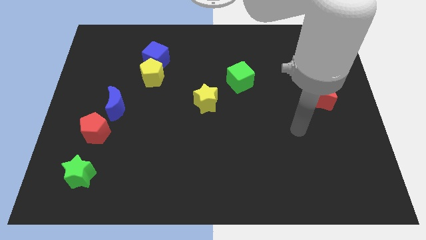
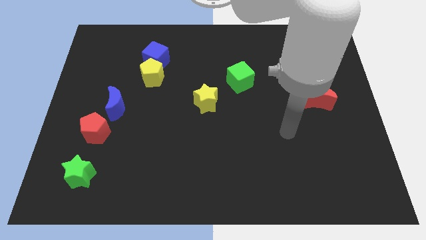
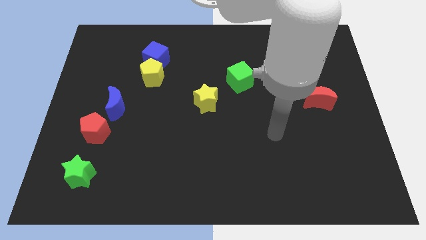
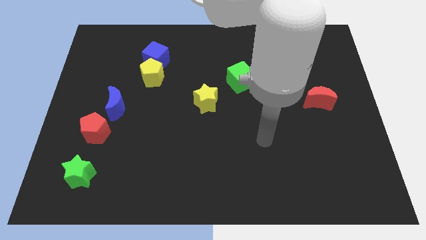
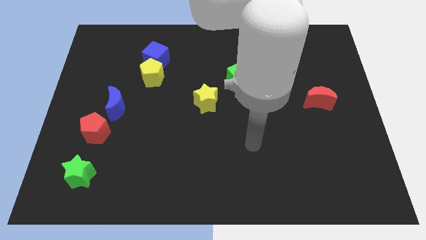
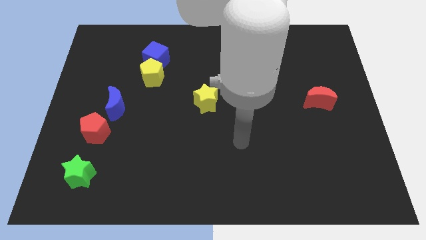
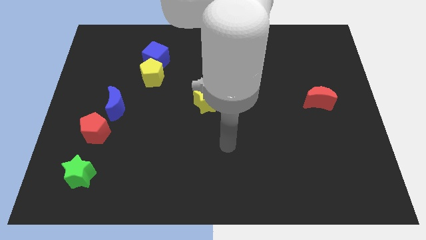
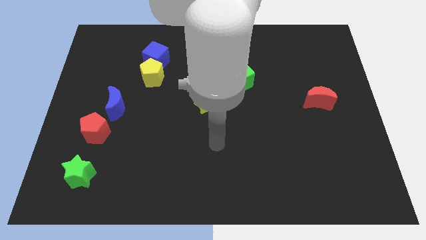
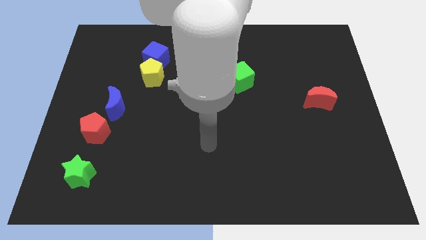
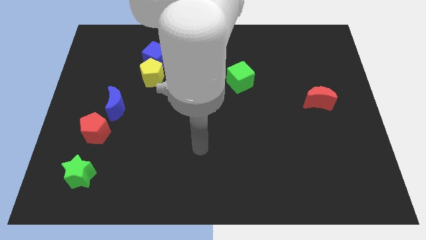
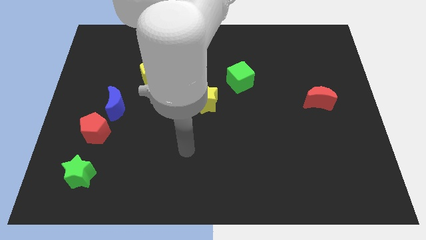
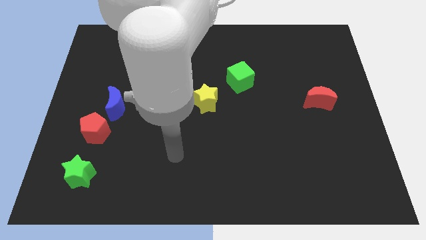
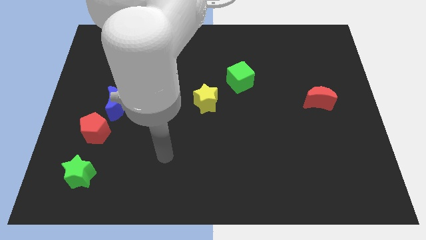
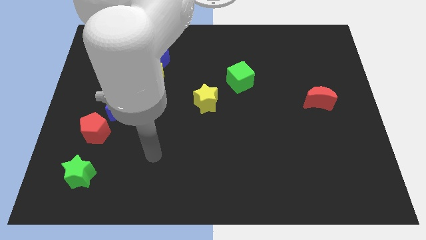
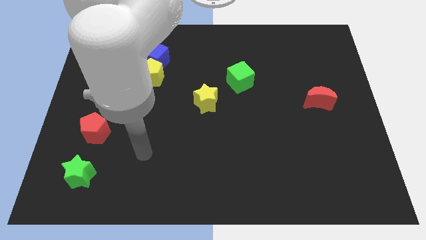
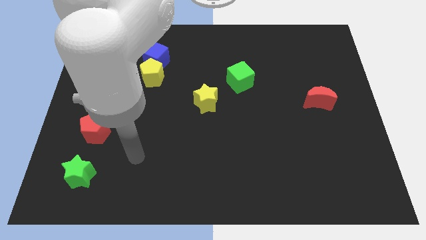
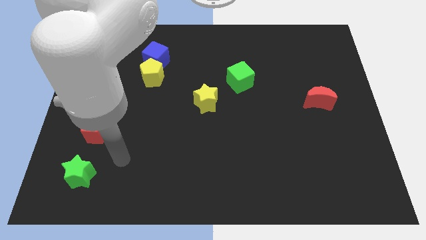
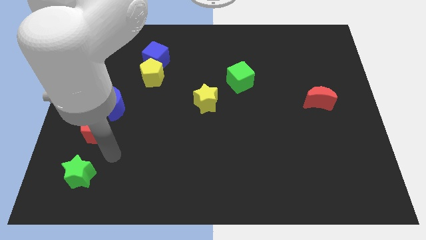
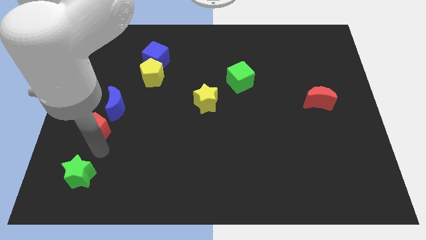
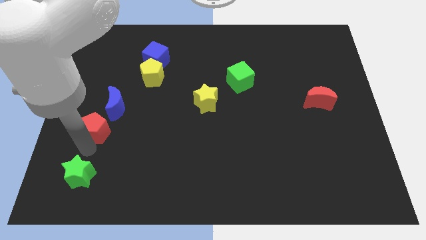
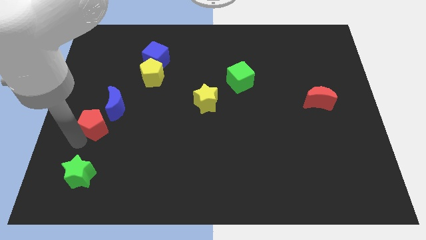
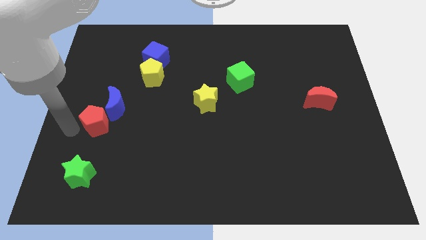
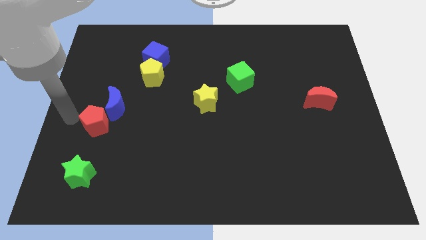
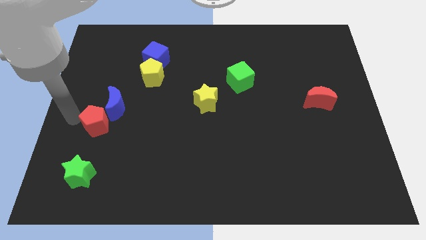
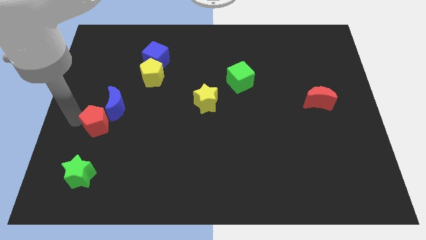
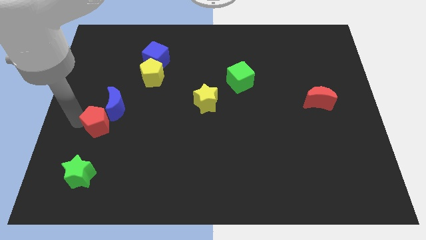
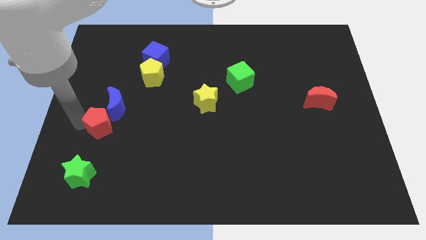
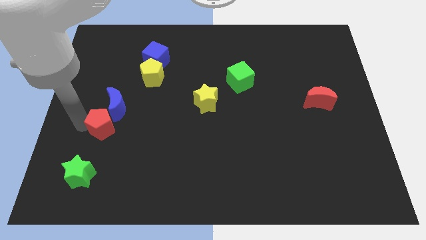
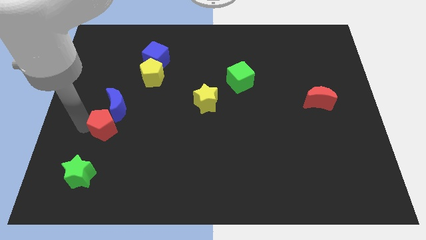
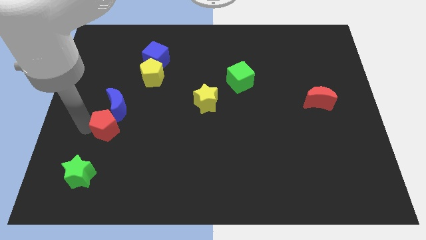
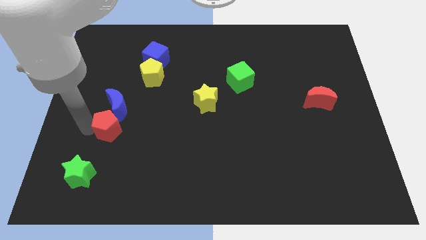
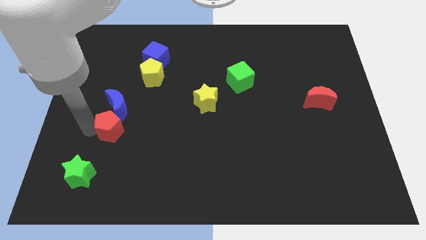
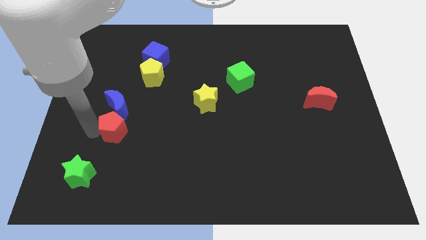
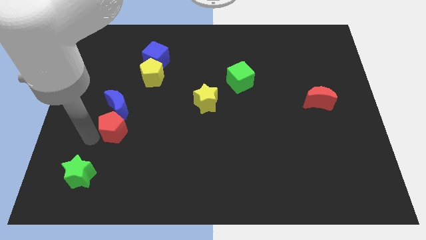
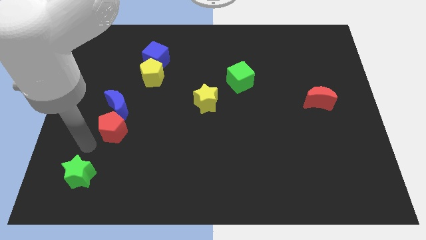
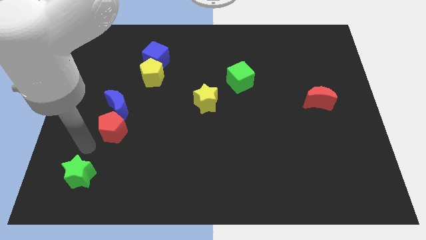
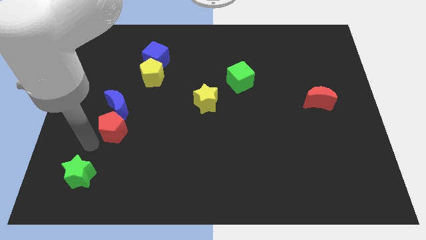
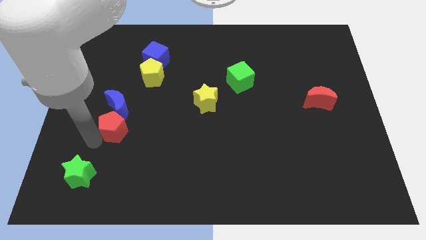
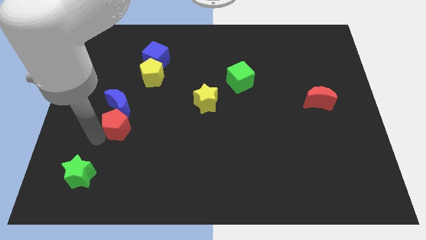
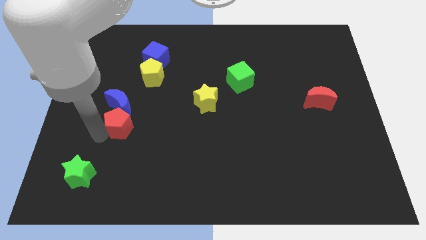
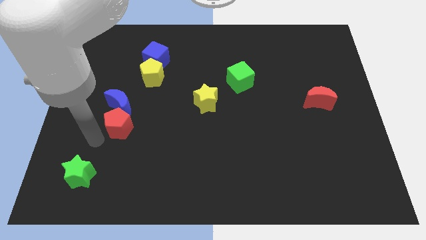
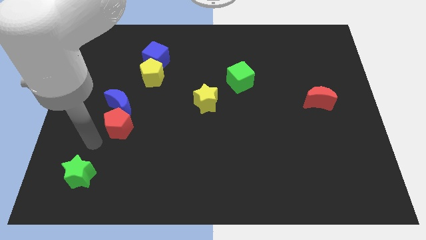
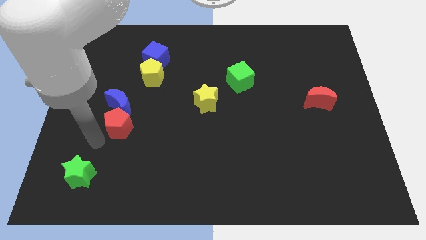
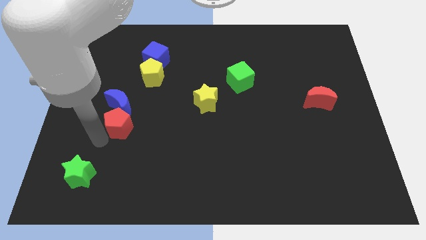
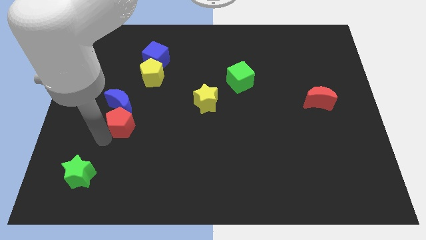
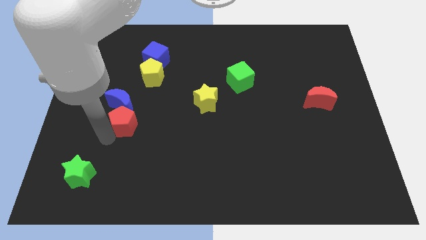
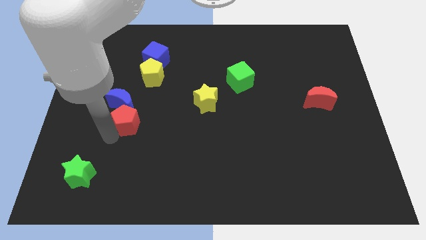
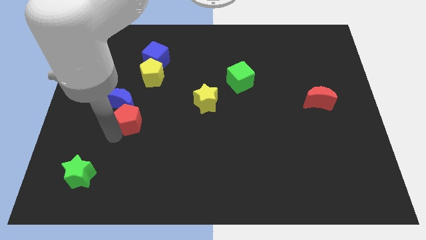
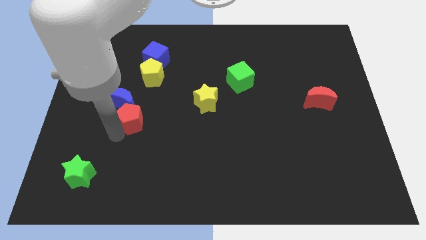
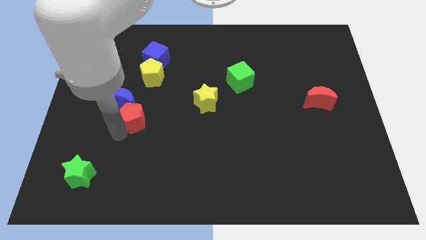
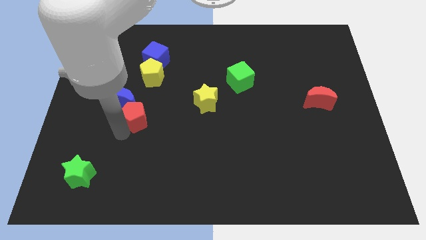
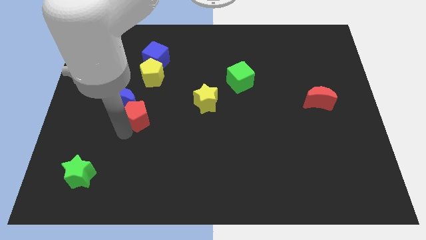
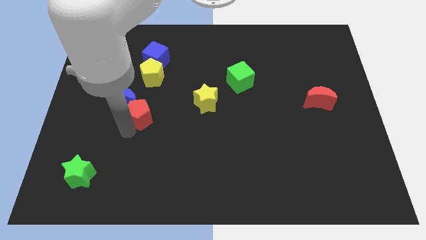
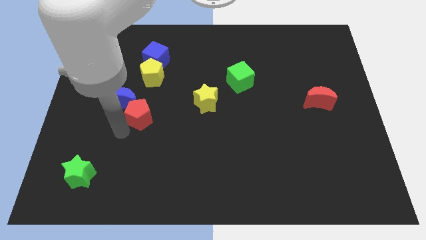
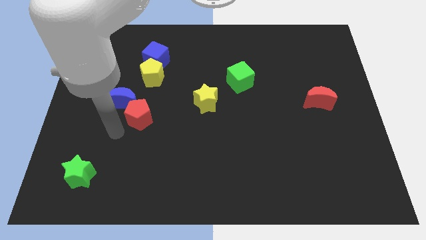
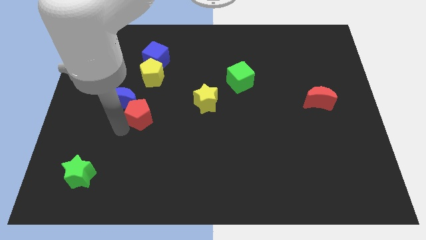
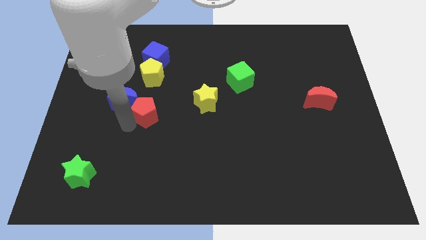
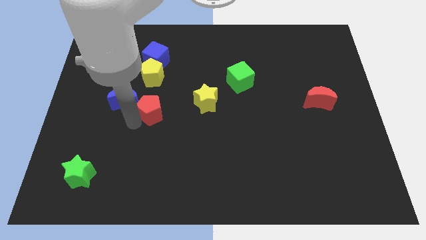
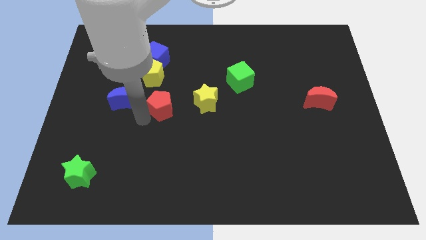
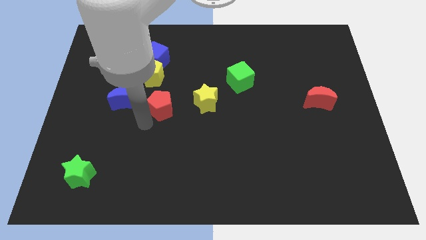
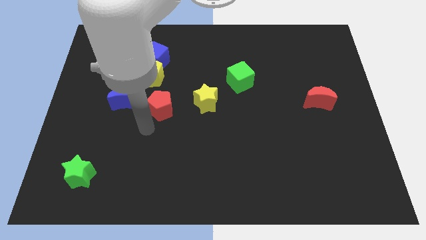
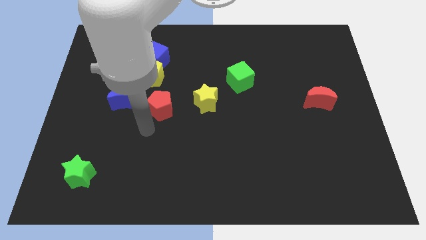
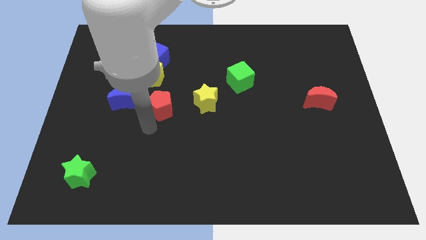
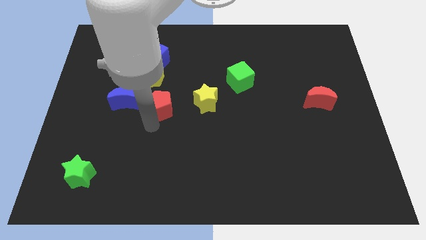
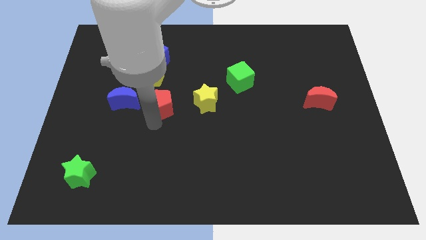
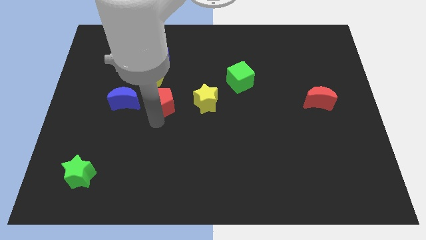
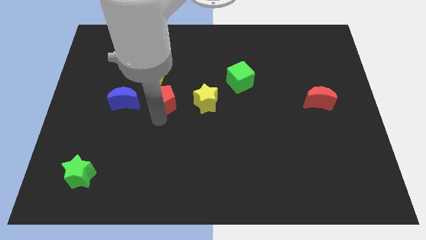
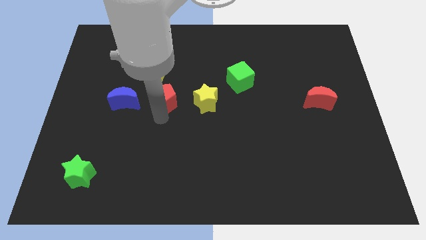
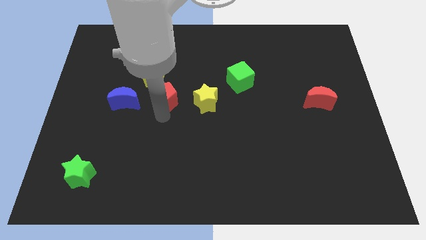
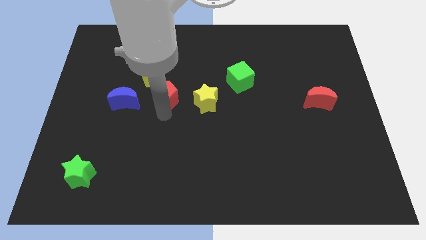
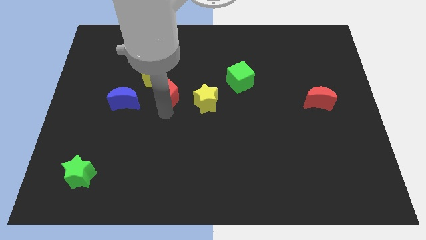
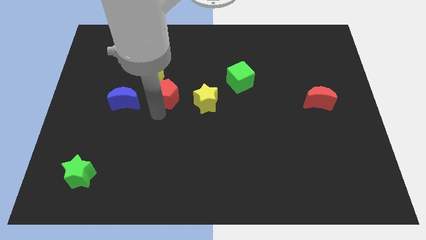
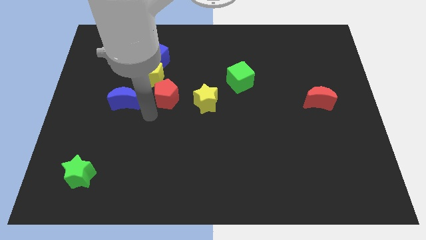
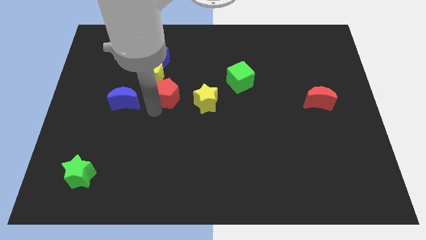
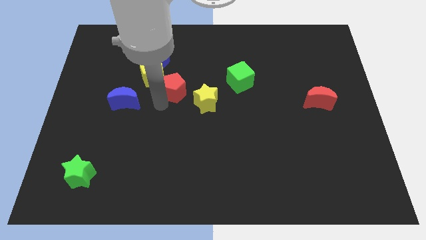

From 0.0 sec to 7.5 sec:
push the red pentagon upwards and to the right diagonally

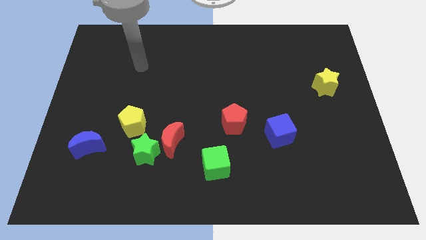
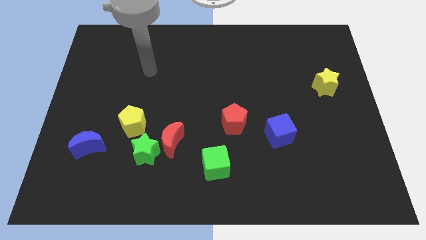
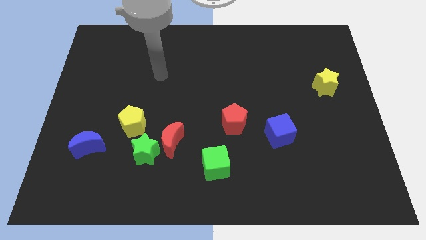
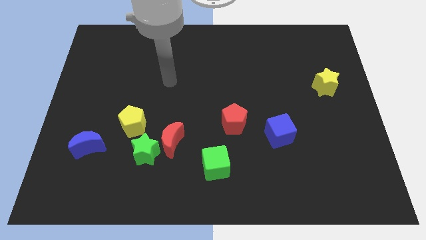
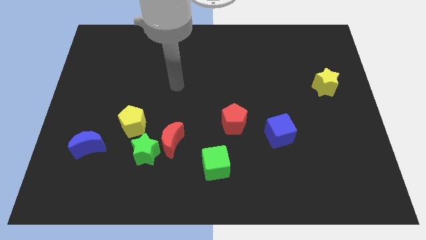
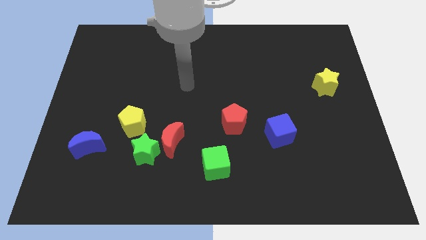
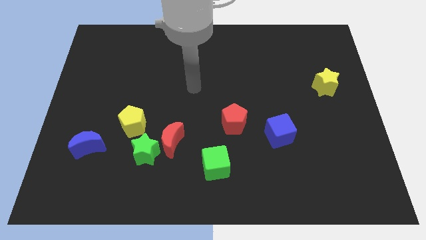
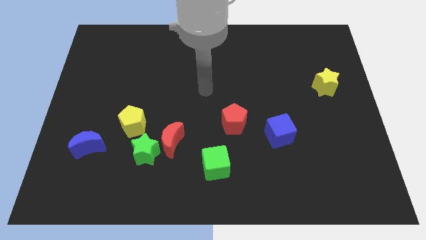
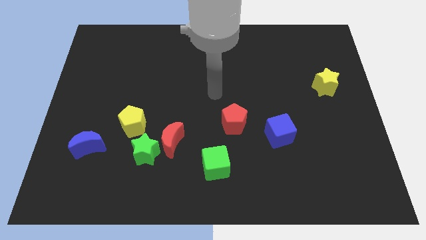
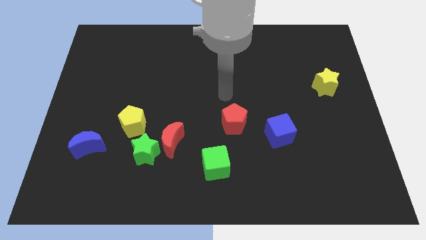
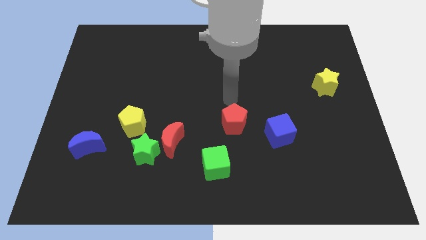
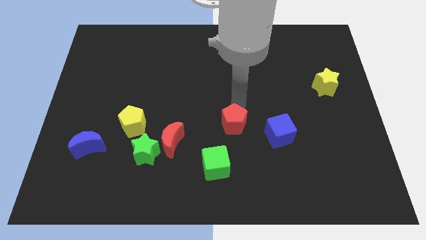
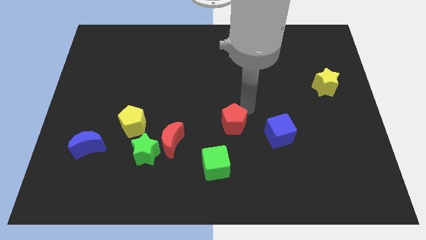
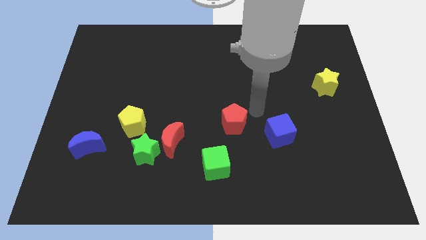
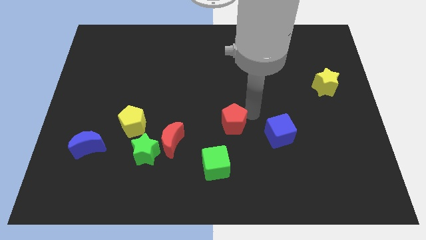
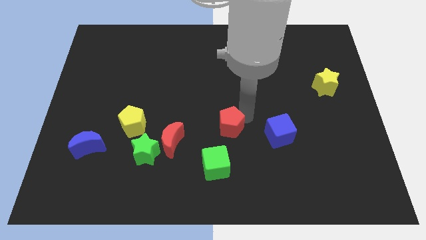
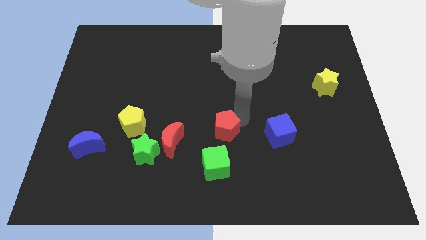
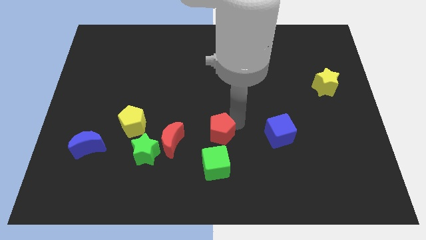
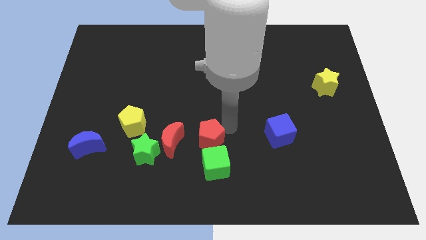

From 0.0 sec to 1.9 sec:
move the red pentagon slightly downwards and left diagonally
